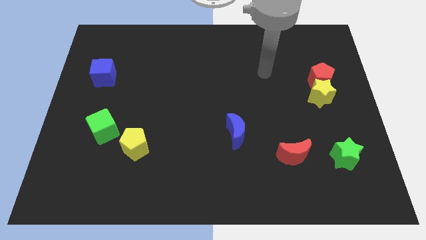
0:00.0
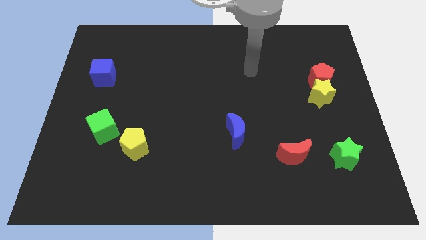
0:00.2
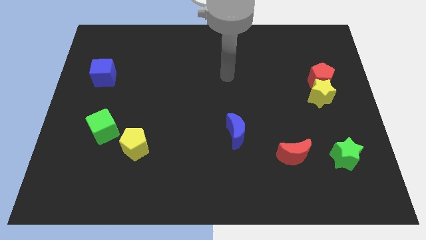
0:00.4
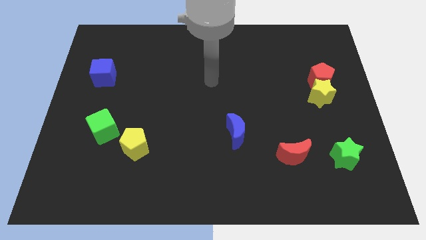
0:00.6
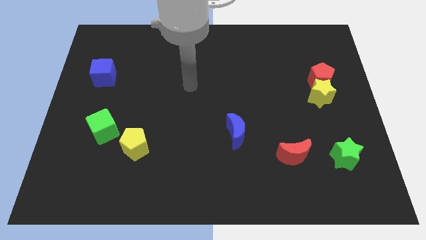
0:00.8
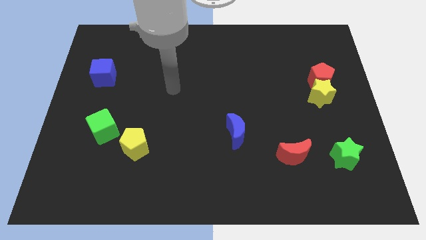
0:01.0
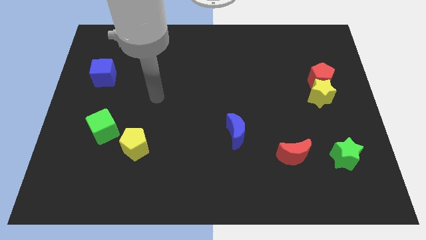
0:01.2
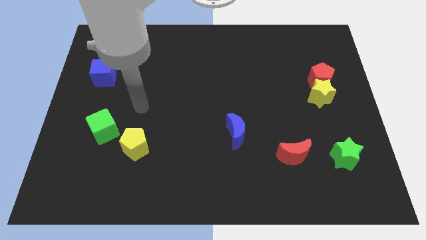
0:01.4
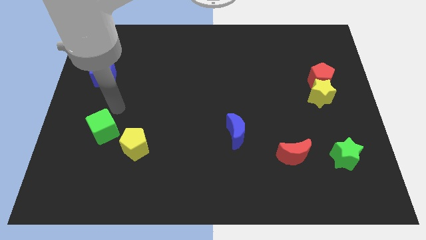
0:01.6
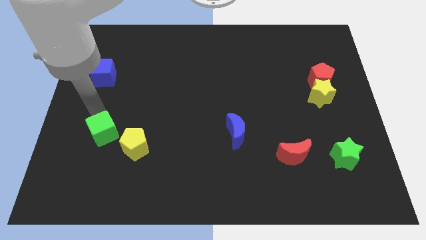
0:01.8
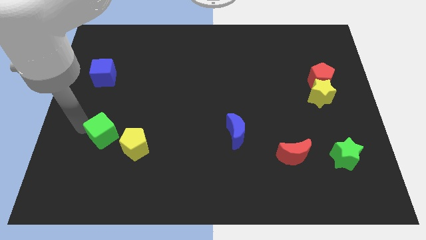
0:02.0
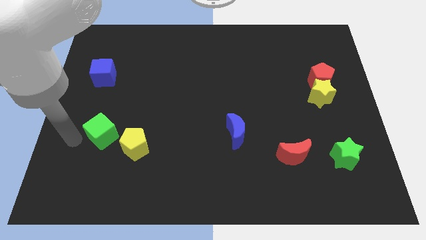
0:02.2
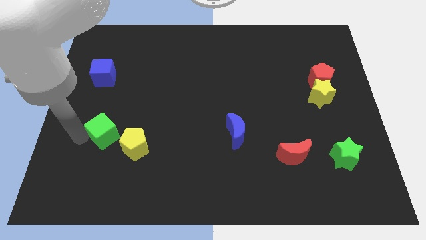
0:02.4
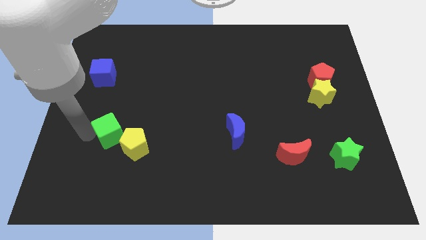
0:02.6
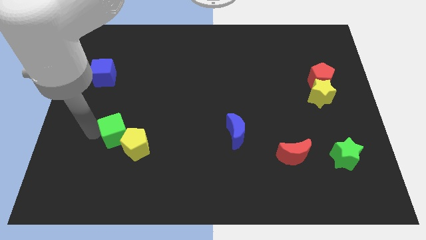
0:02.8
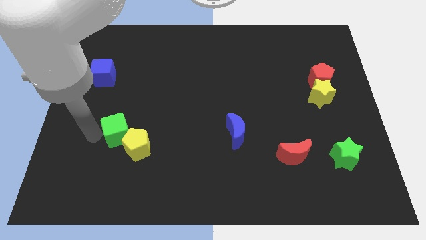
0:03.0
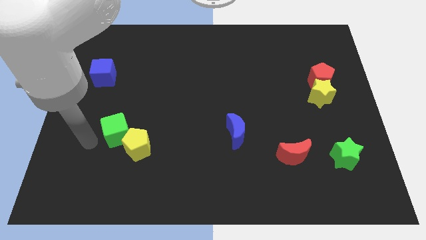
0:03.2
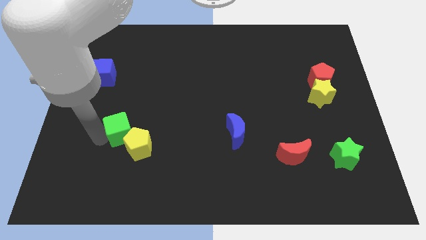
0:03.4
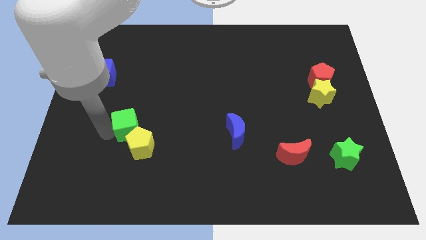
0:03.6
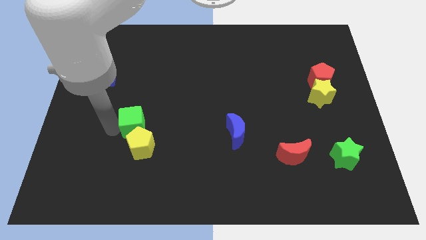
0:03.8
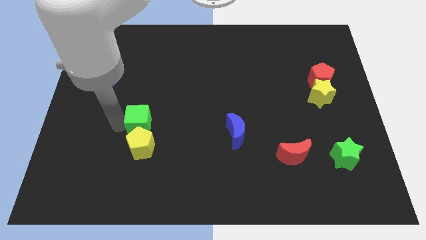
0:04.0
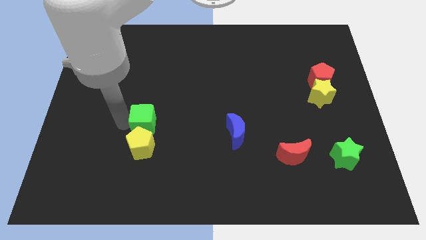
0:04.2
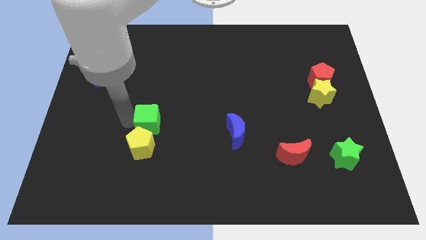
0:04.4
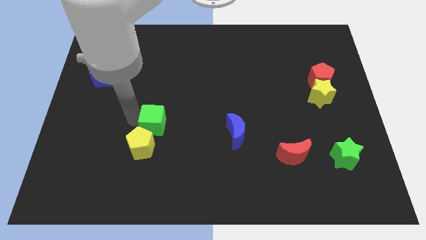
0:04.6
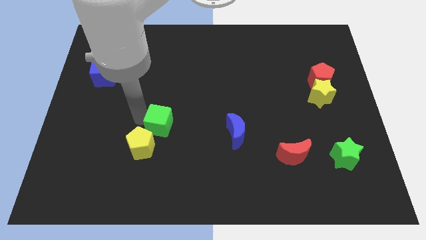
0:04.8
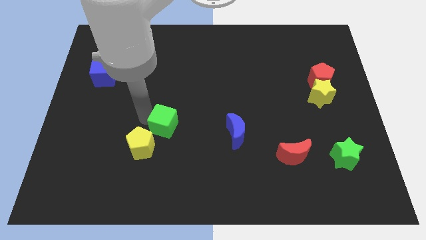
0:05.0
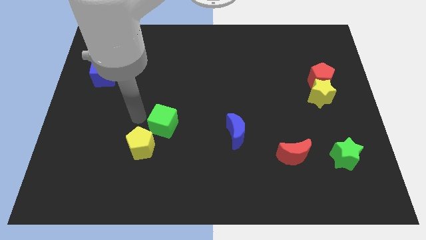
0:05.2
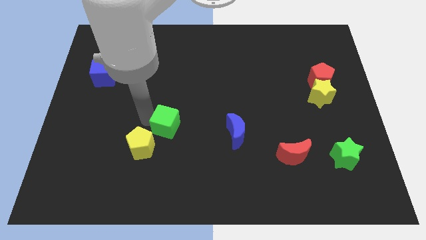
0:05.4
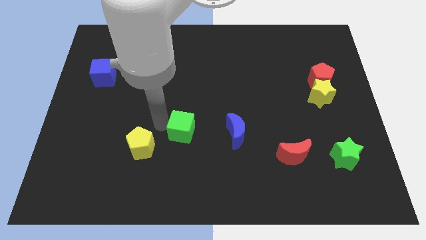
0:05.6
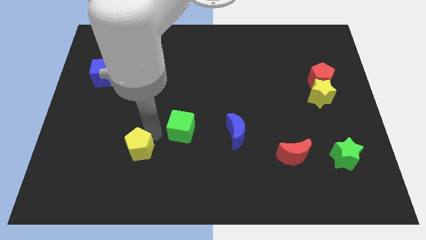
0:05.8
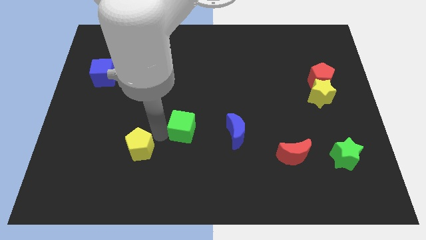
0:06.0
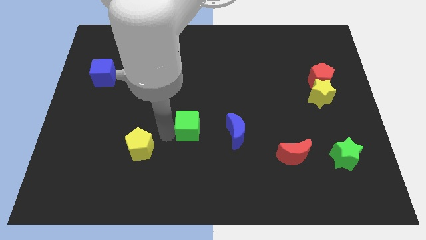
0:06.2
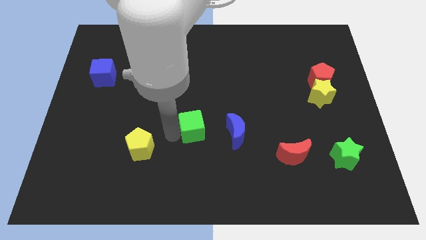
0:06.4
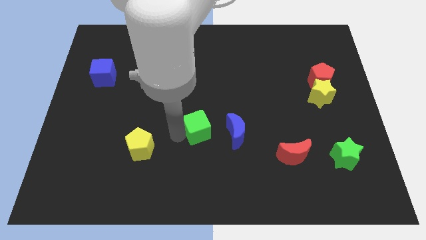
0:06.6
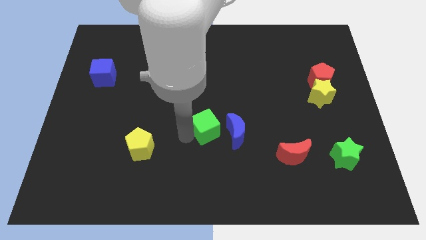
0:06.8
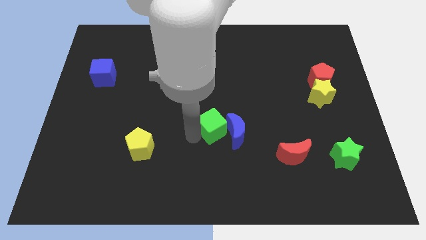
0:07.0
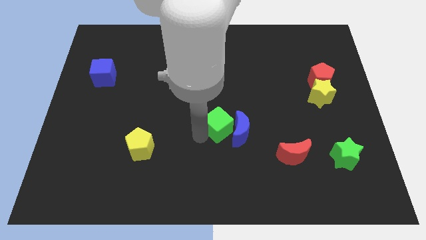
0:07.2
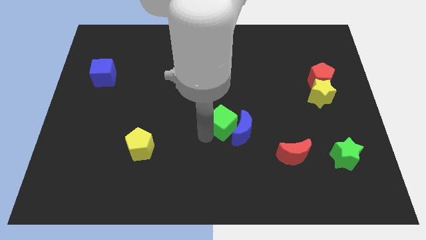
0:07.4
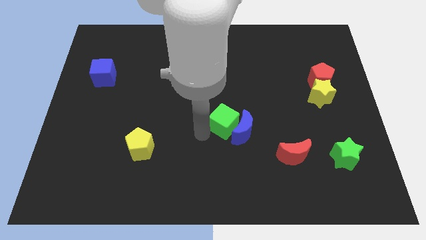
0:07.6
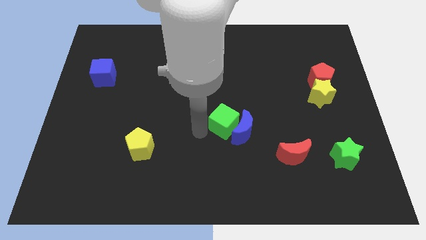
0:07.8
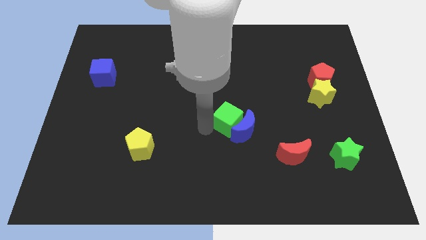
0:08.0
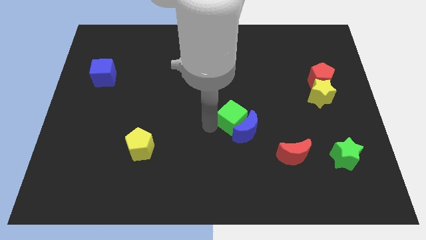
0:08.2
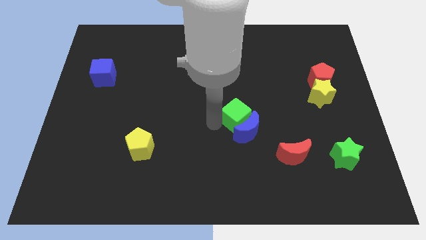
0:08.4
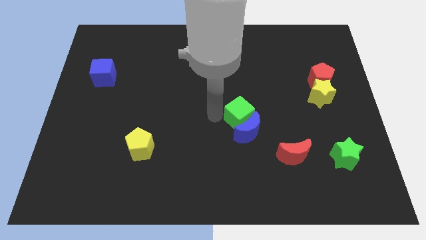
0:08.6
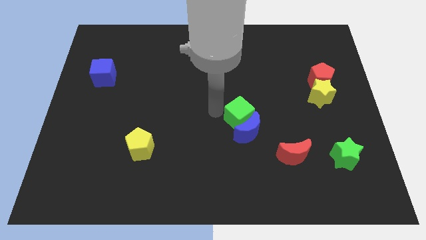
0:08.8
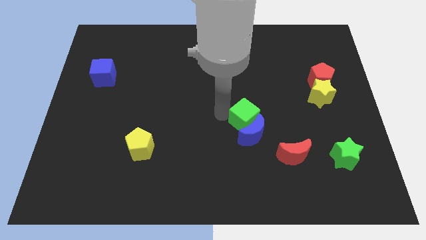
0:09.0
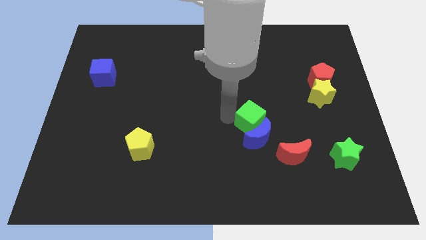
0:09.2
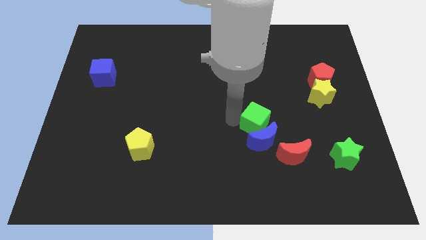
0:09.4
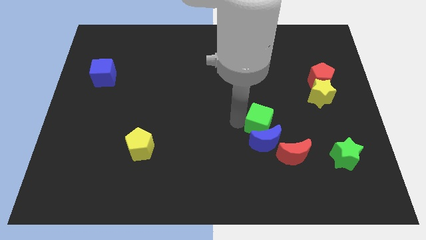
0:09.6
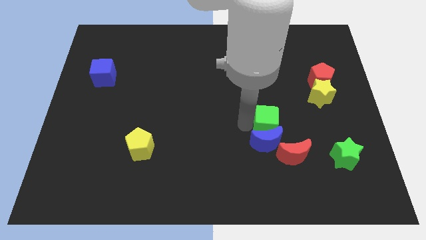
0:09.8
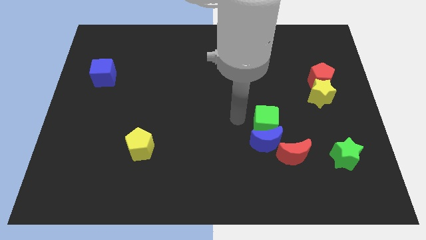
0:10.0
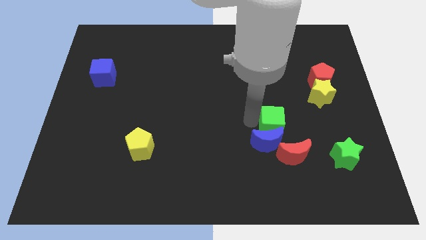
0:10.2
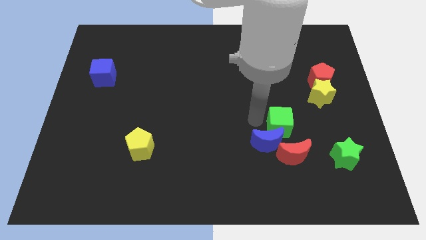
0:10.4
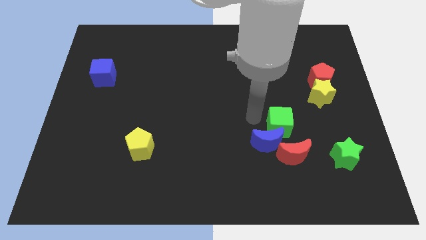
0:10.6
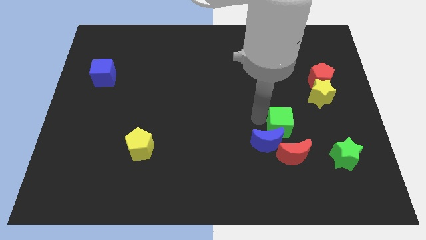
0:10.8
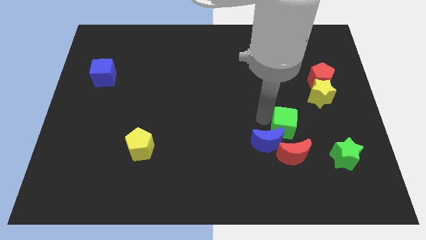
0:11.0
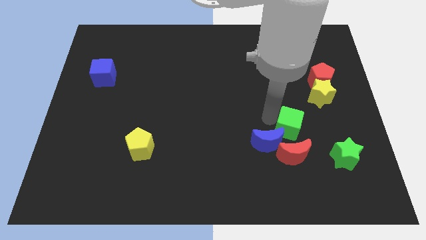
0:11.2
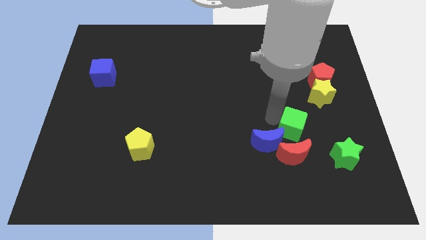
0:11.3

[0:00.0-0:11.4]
move the green cube to the top right side of the red moon

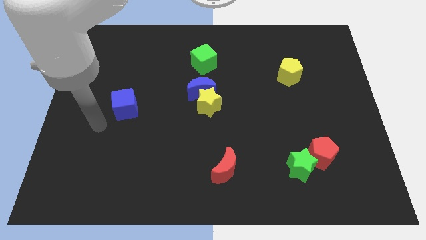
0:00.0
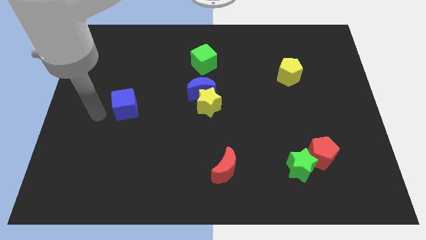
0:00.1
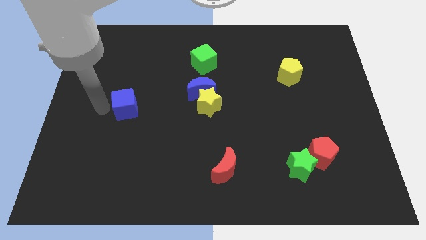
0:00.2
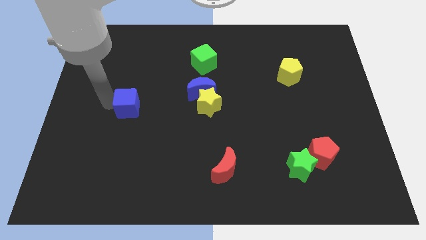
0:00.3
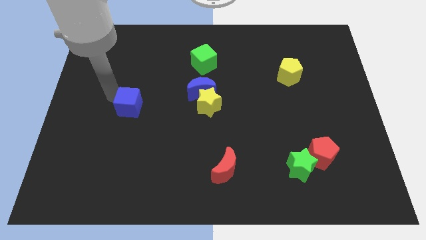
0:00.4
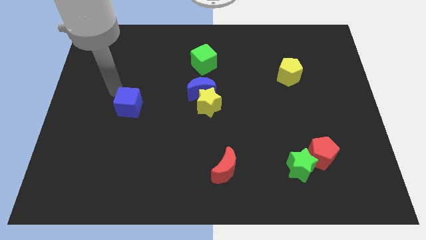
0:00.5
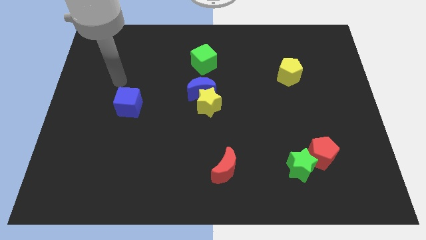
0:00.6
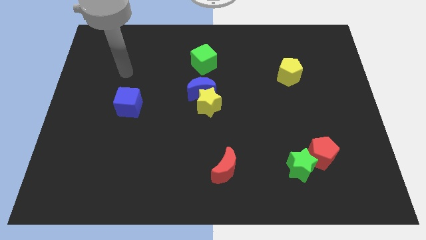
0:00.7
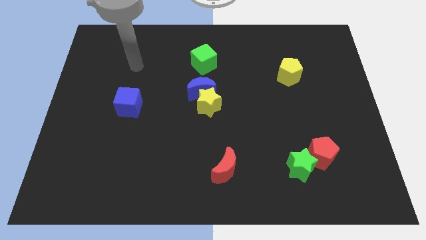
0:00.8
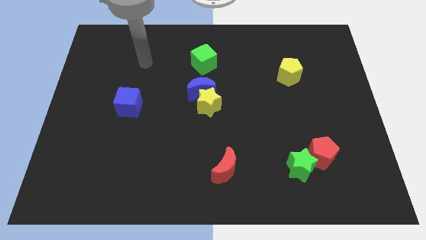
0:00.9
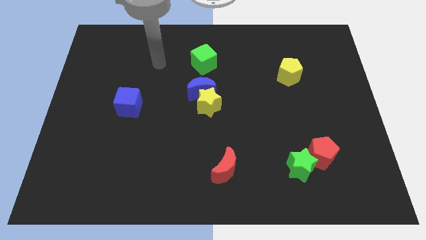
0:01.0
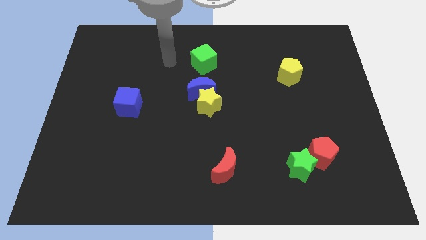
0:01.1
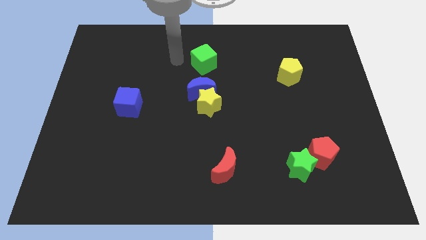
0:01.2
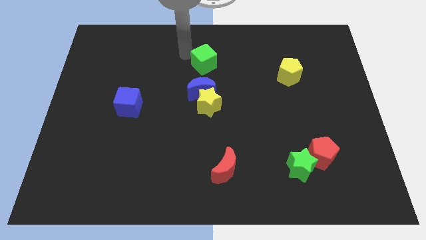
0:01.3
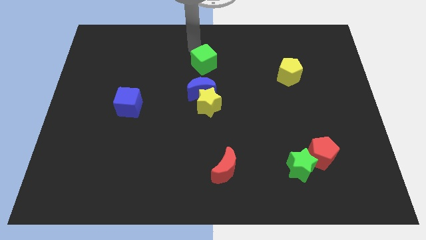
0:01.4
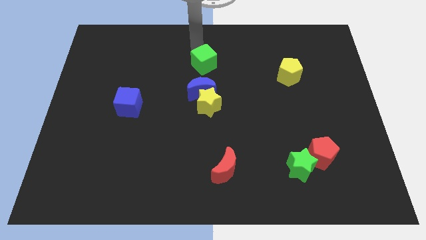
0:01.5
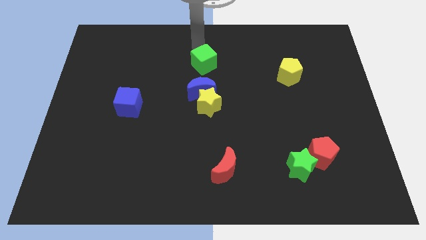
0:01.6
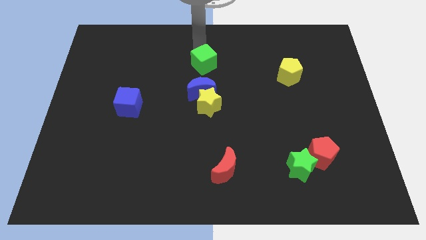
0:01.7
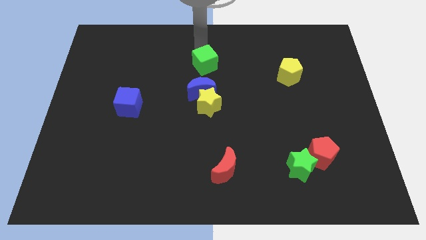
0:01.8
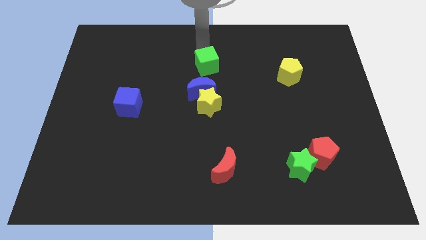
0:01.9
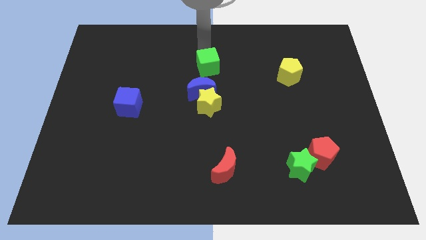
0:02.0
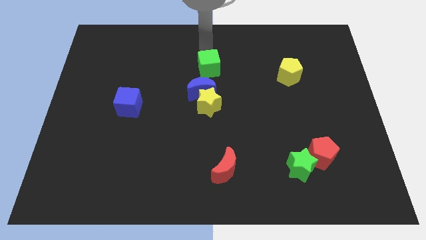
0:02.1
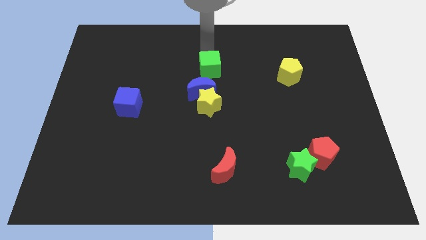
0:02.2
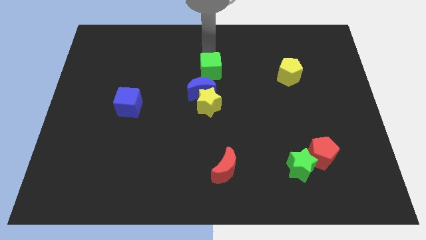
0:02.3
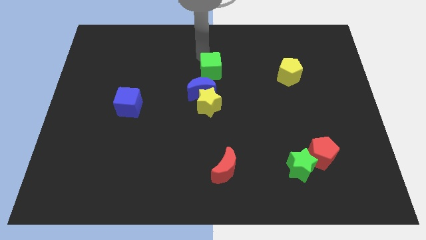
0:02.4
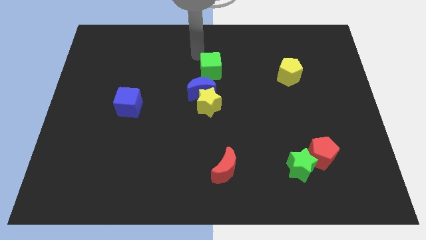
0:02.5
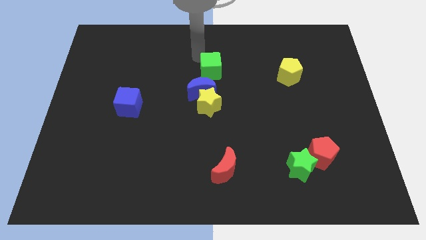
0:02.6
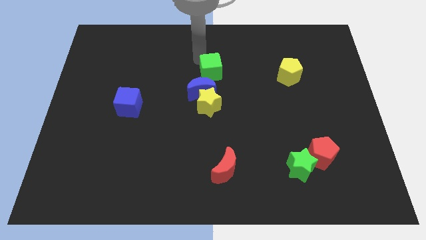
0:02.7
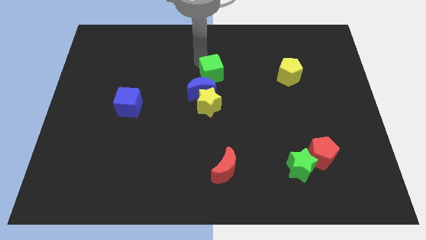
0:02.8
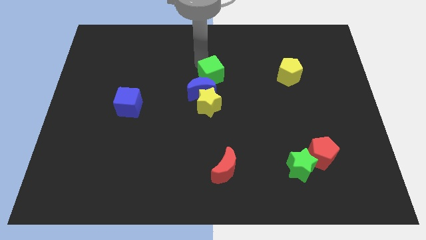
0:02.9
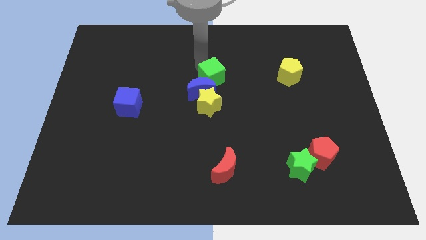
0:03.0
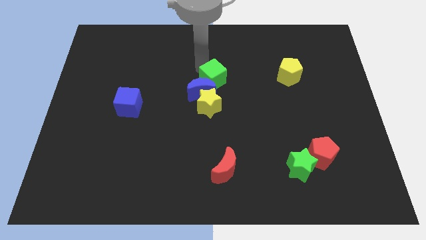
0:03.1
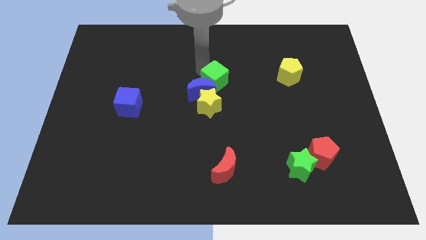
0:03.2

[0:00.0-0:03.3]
push the green cube diagonally up and to the right of the yellow star
